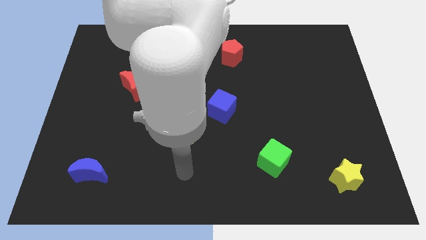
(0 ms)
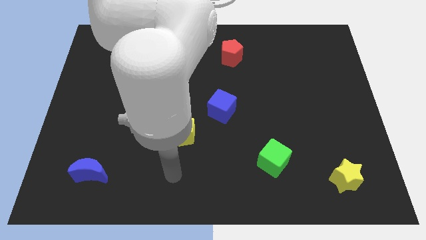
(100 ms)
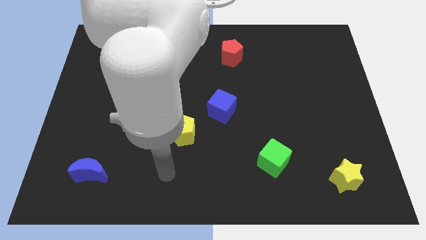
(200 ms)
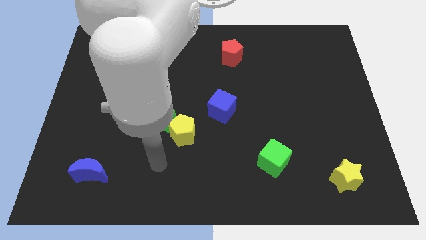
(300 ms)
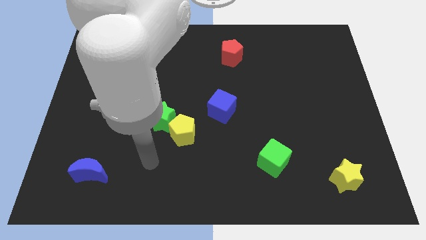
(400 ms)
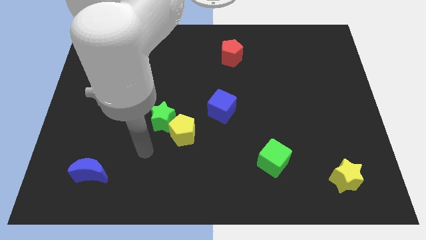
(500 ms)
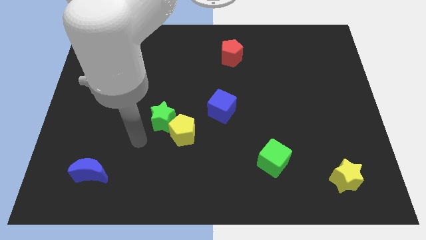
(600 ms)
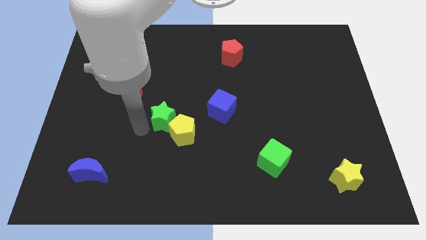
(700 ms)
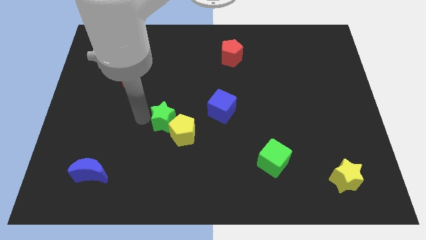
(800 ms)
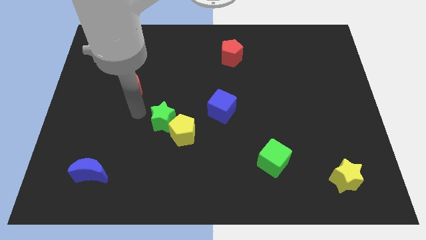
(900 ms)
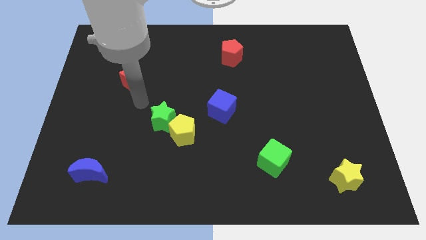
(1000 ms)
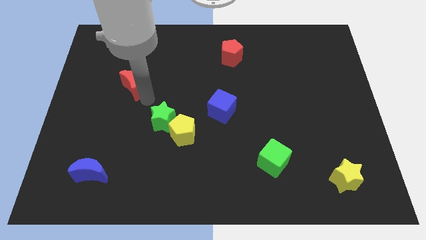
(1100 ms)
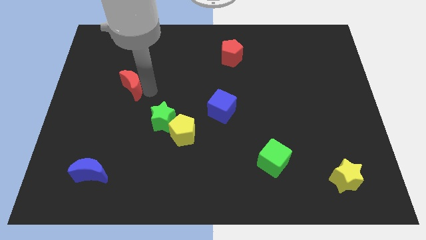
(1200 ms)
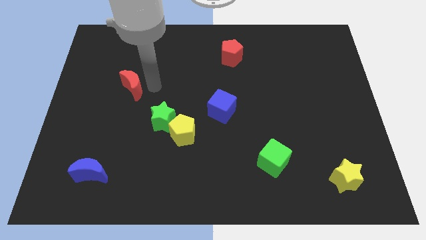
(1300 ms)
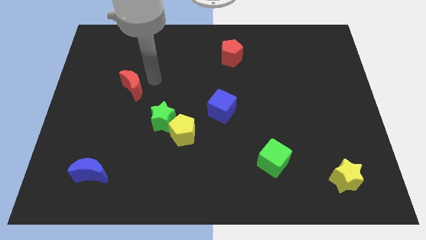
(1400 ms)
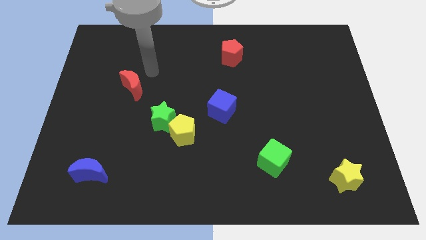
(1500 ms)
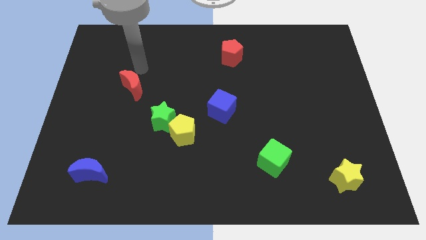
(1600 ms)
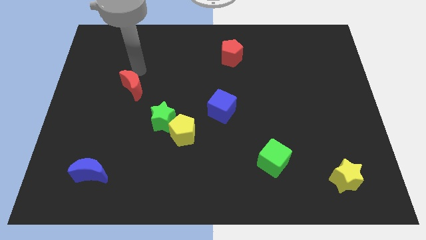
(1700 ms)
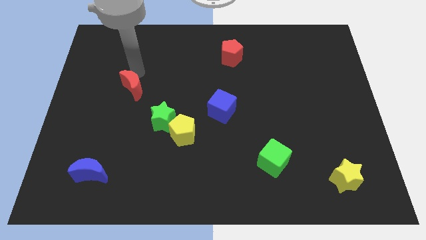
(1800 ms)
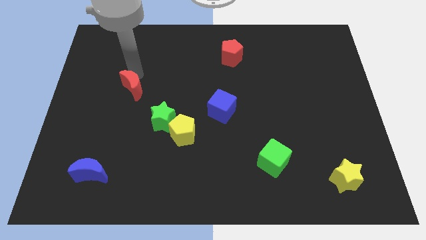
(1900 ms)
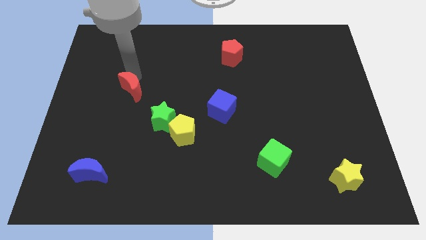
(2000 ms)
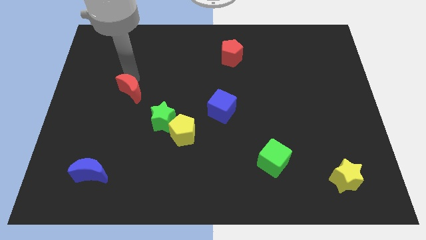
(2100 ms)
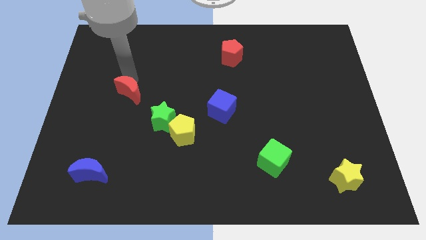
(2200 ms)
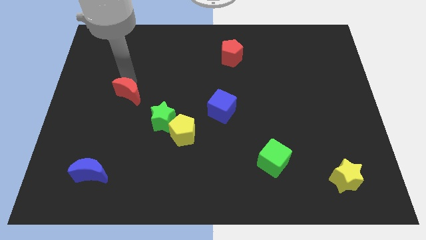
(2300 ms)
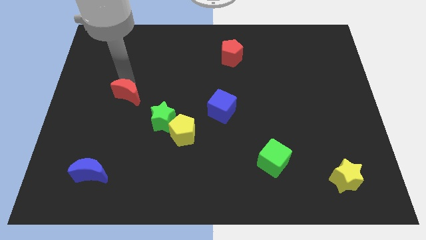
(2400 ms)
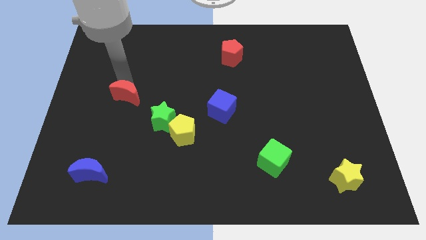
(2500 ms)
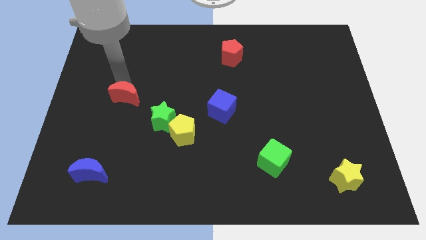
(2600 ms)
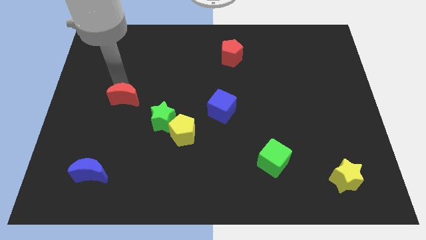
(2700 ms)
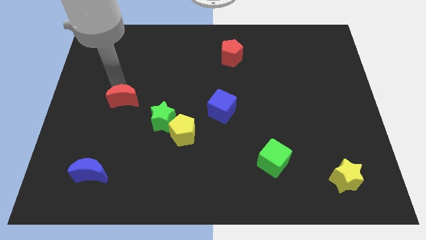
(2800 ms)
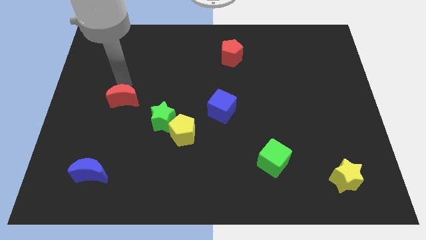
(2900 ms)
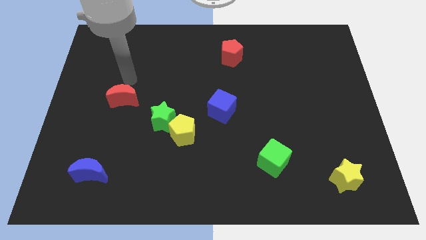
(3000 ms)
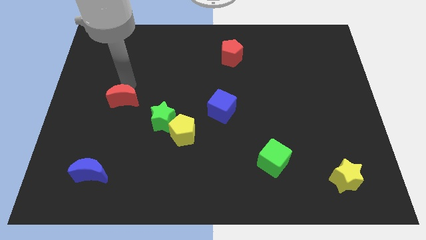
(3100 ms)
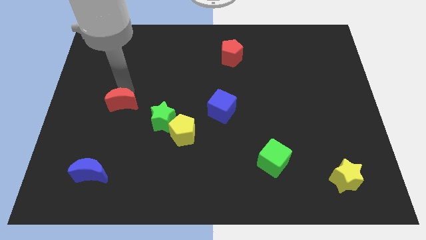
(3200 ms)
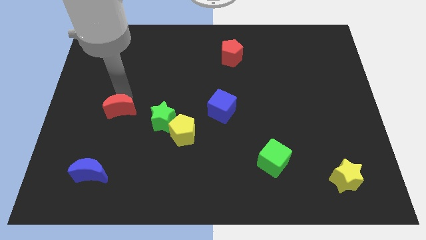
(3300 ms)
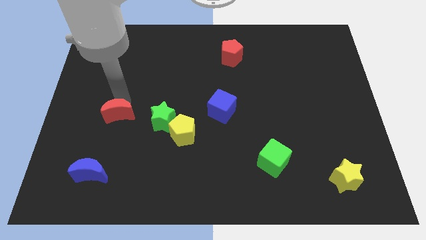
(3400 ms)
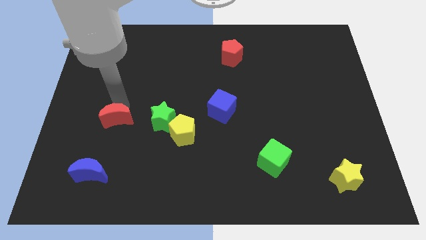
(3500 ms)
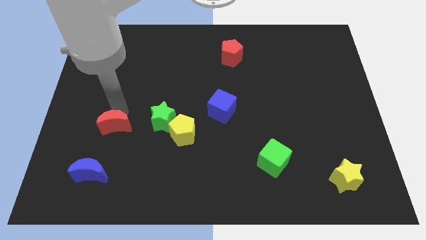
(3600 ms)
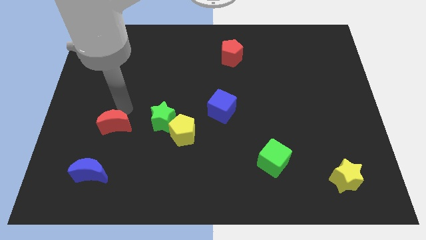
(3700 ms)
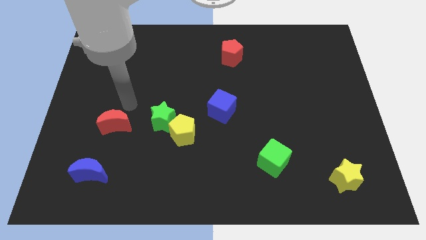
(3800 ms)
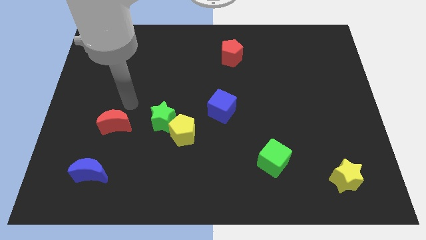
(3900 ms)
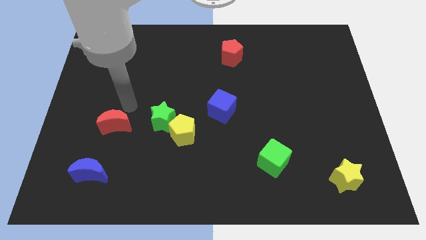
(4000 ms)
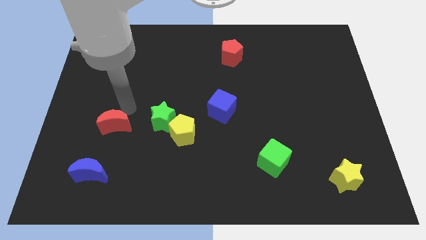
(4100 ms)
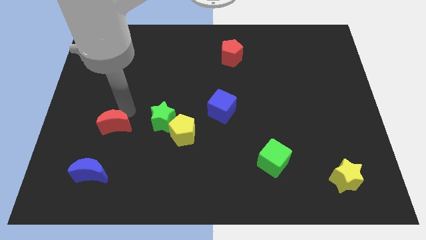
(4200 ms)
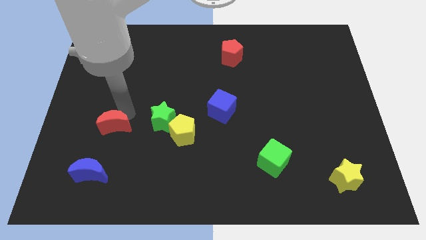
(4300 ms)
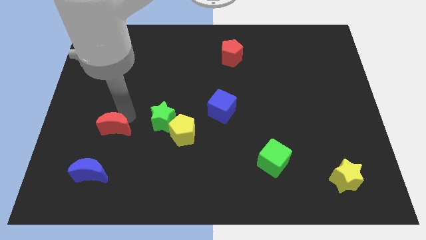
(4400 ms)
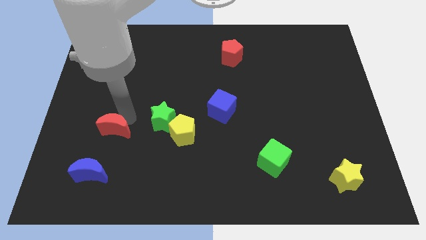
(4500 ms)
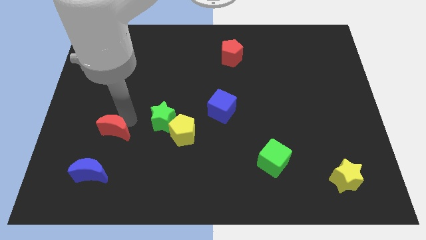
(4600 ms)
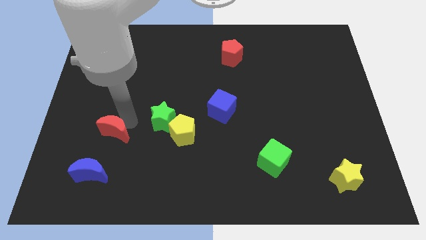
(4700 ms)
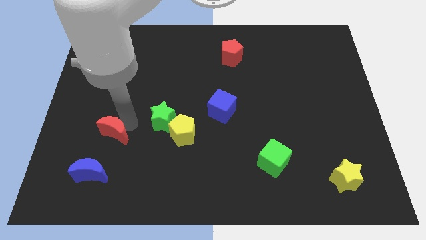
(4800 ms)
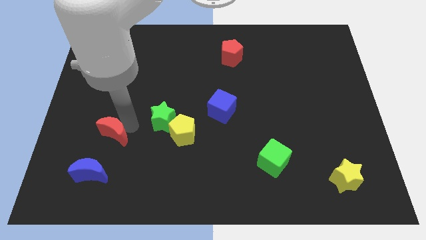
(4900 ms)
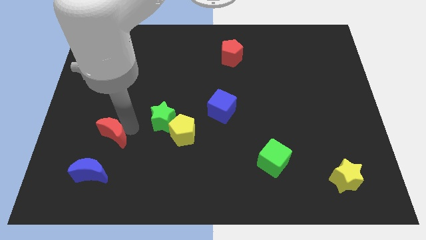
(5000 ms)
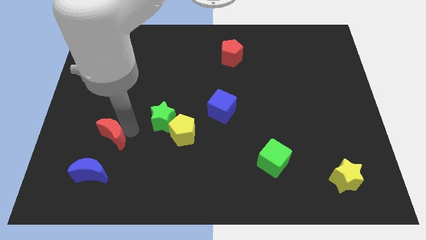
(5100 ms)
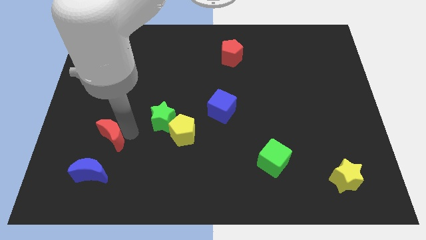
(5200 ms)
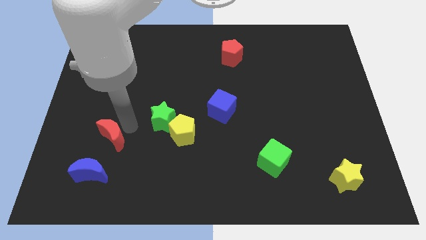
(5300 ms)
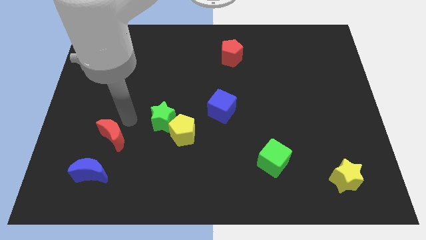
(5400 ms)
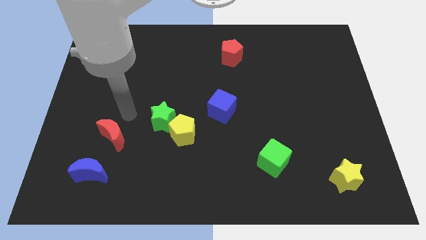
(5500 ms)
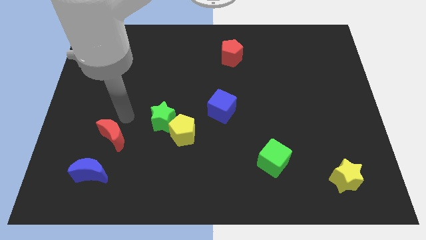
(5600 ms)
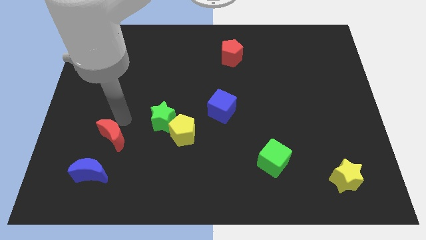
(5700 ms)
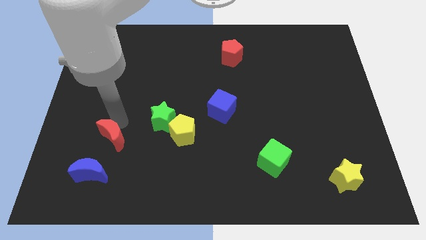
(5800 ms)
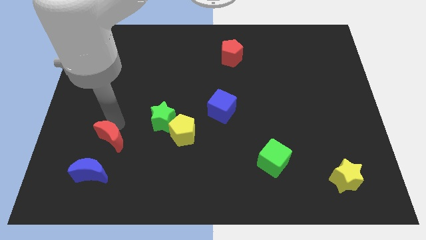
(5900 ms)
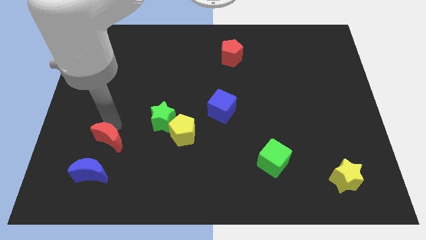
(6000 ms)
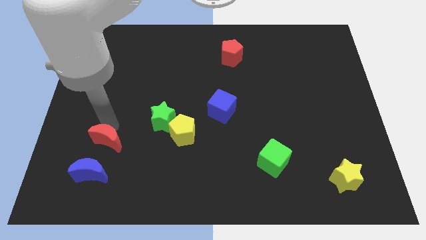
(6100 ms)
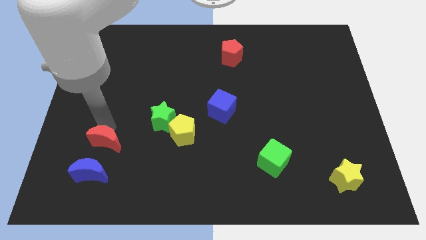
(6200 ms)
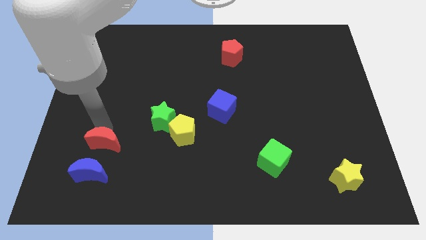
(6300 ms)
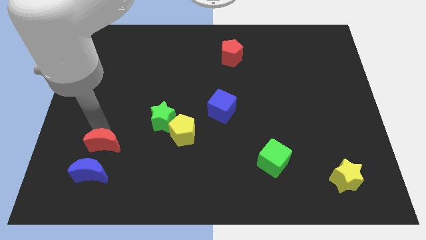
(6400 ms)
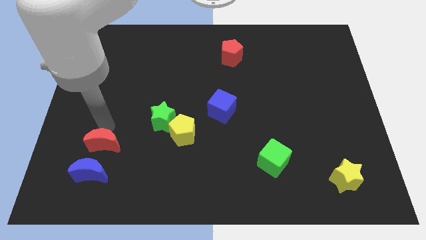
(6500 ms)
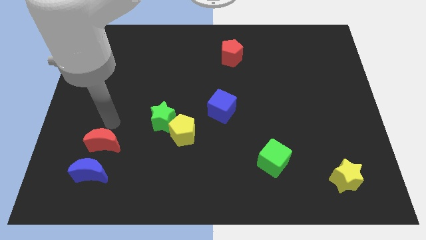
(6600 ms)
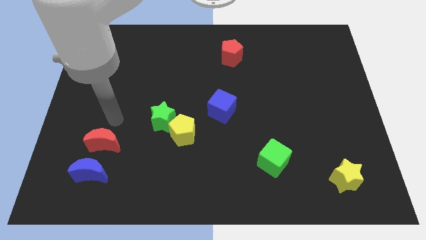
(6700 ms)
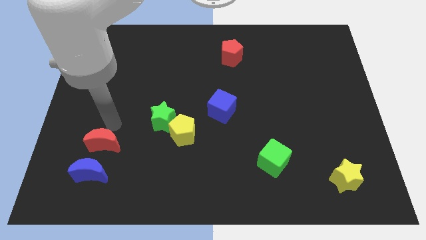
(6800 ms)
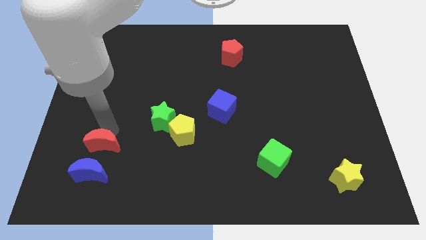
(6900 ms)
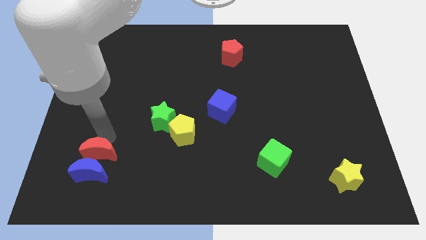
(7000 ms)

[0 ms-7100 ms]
slide the red moon next to the blue moon
